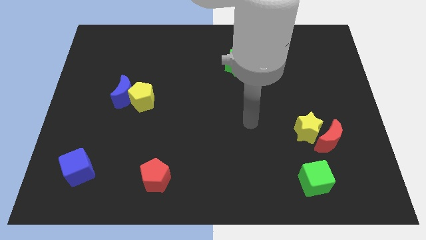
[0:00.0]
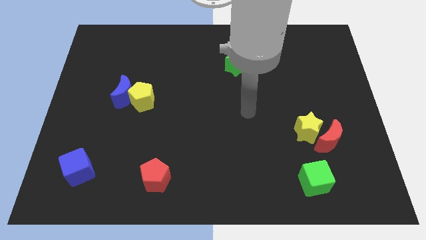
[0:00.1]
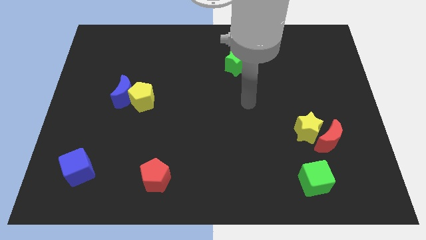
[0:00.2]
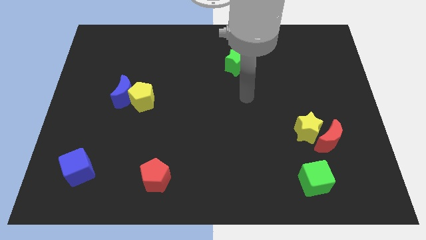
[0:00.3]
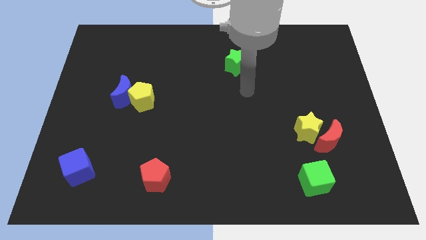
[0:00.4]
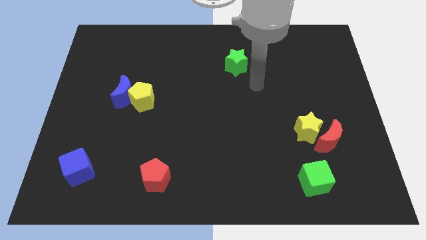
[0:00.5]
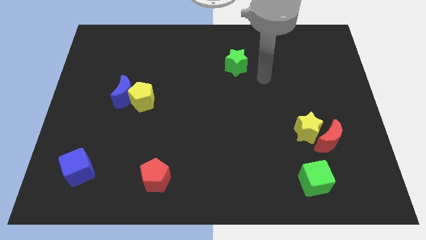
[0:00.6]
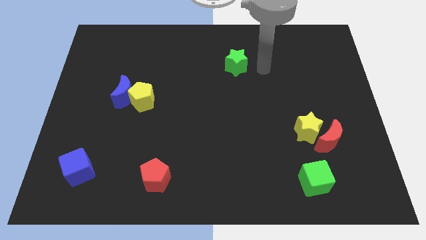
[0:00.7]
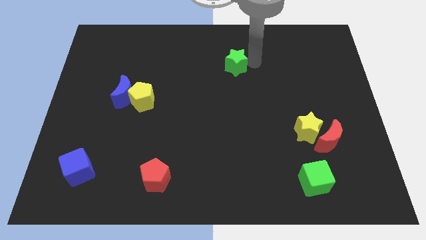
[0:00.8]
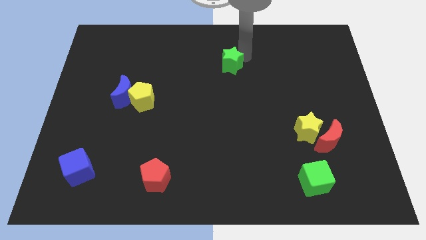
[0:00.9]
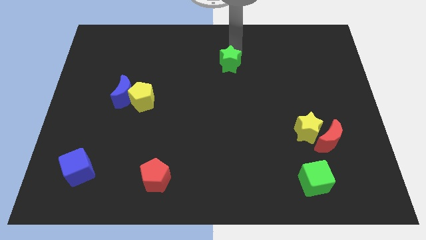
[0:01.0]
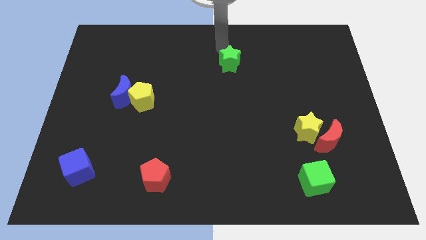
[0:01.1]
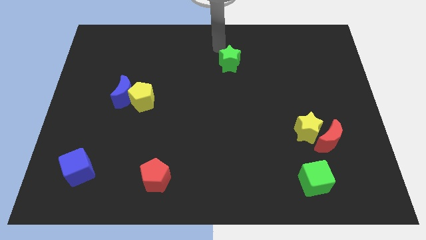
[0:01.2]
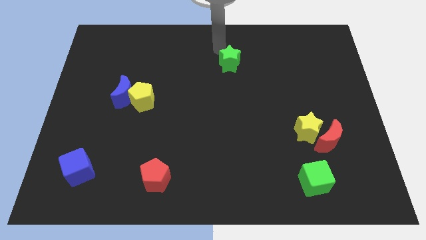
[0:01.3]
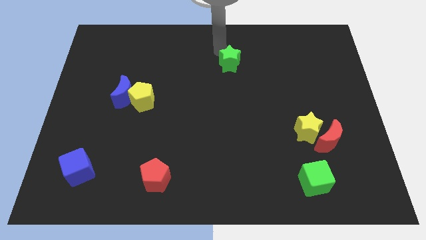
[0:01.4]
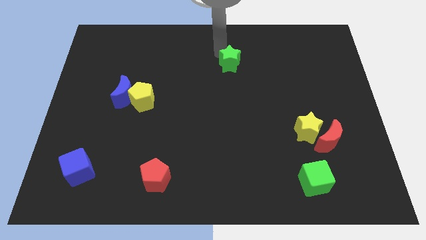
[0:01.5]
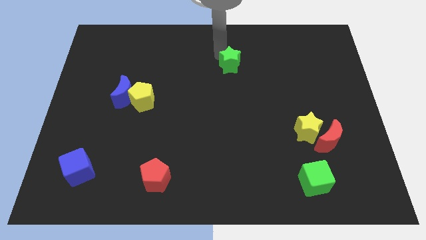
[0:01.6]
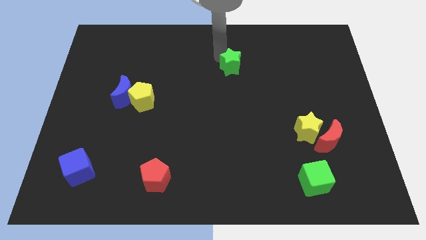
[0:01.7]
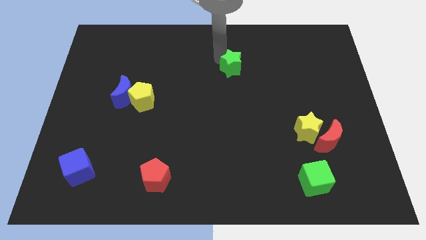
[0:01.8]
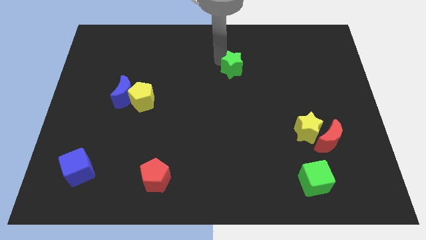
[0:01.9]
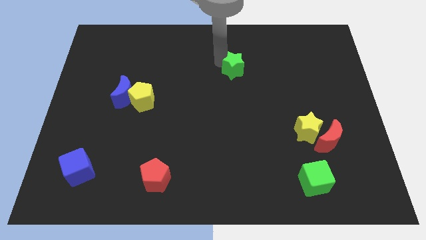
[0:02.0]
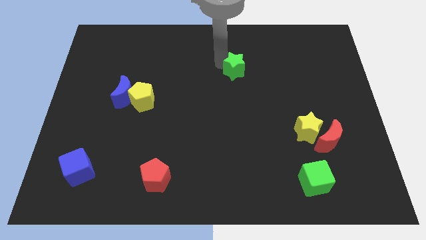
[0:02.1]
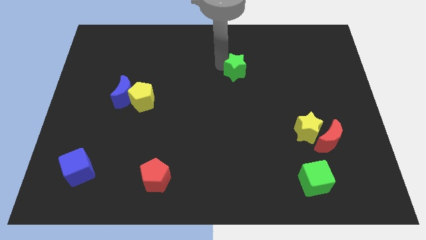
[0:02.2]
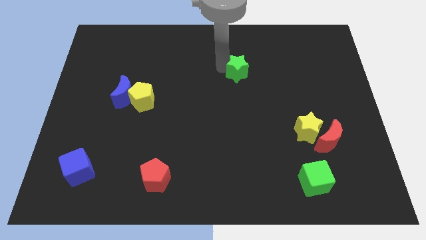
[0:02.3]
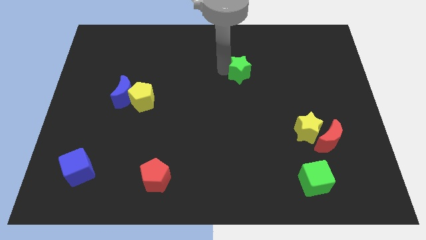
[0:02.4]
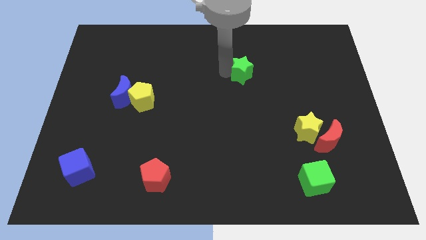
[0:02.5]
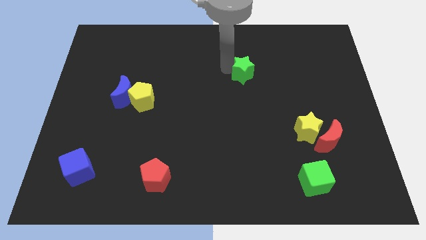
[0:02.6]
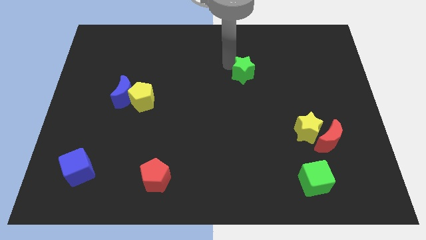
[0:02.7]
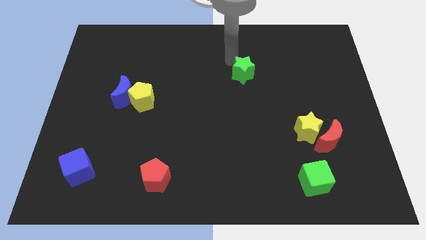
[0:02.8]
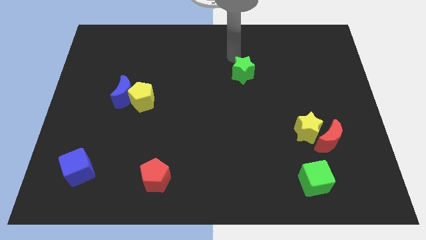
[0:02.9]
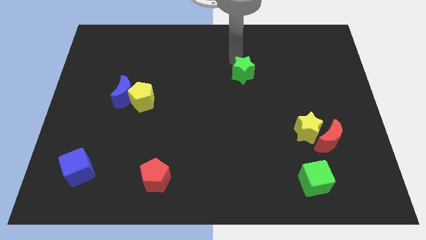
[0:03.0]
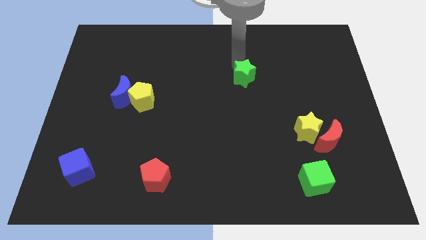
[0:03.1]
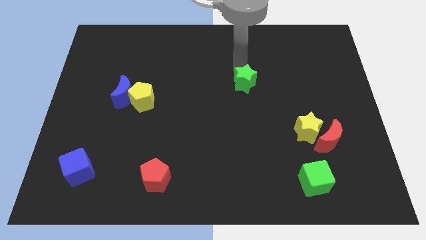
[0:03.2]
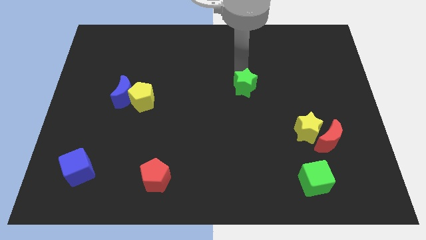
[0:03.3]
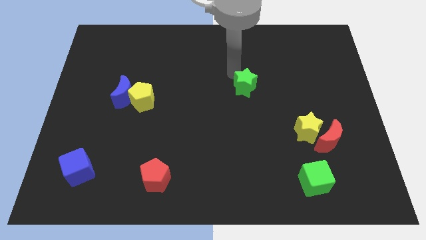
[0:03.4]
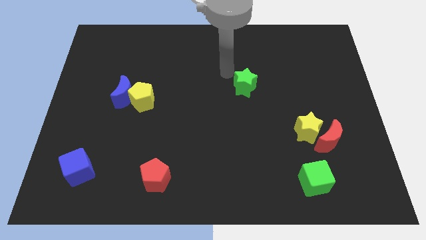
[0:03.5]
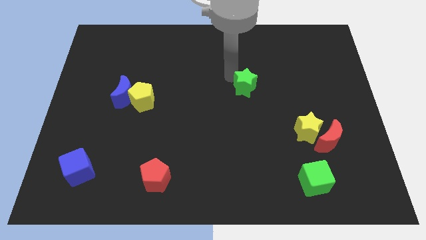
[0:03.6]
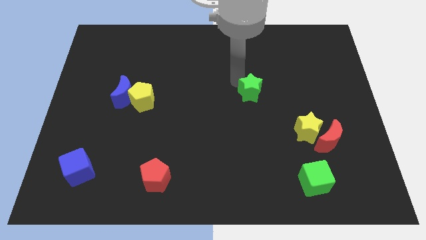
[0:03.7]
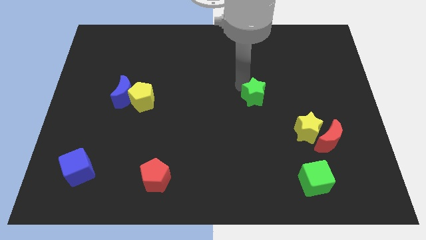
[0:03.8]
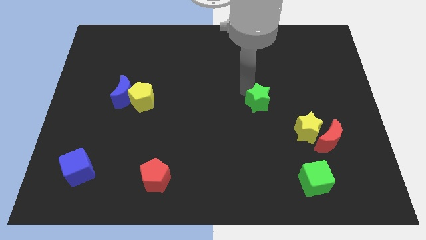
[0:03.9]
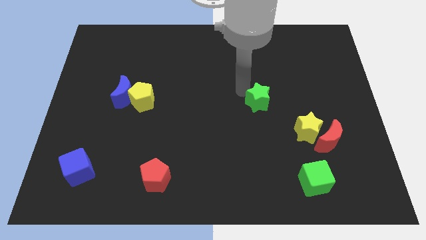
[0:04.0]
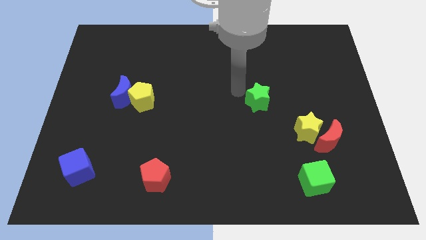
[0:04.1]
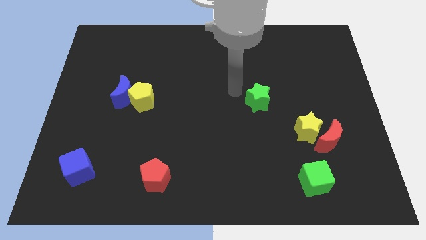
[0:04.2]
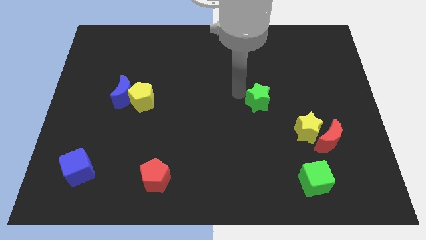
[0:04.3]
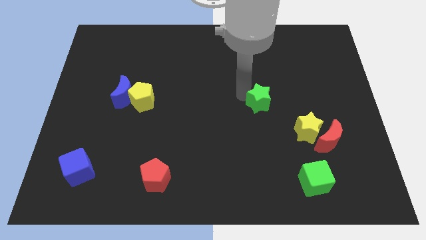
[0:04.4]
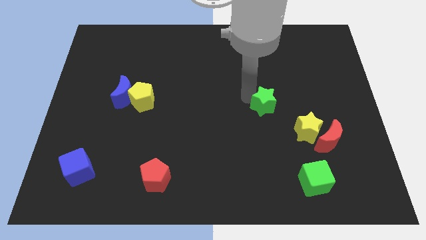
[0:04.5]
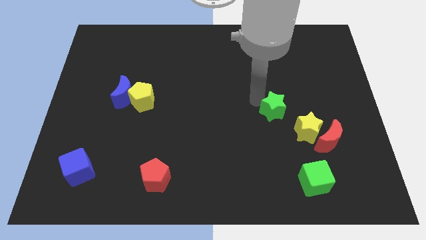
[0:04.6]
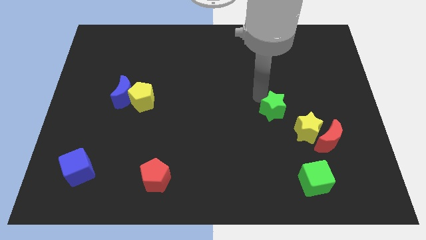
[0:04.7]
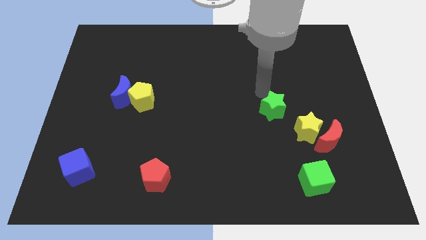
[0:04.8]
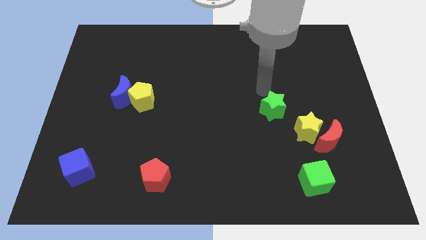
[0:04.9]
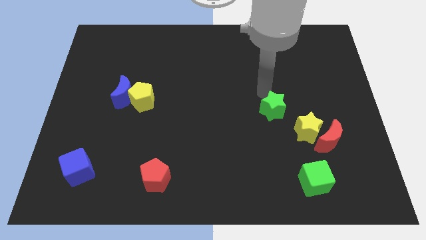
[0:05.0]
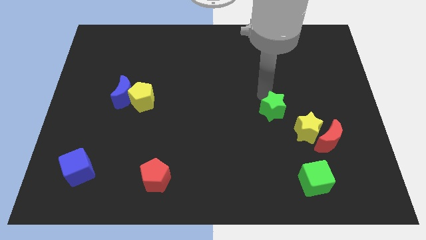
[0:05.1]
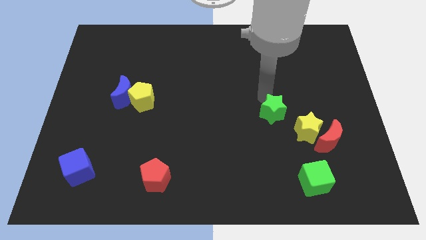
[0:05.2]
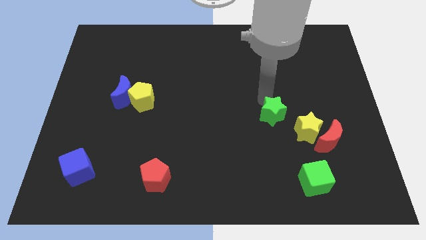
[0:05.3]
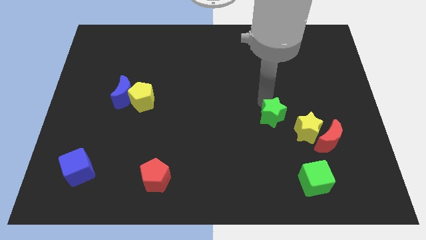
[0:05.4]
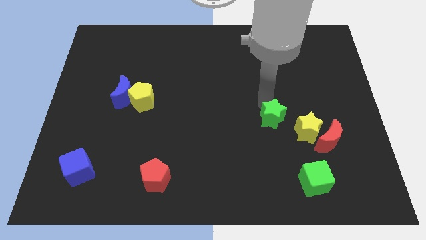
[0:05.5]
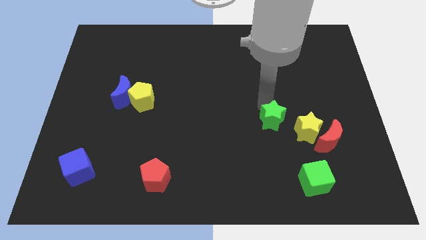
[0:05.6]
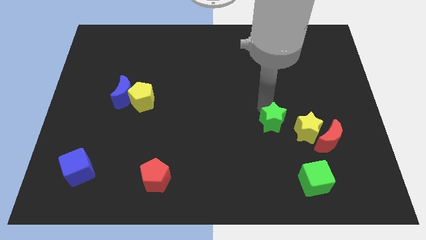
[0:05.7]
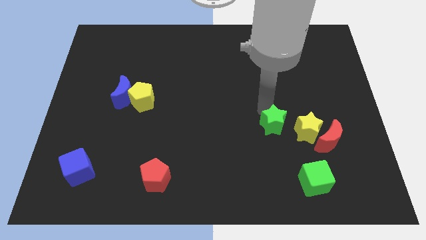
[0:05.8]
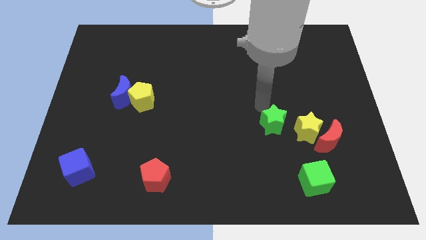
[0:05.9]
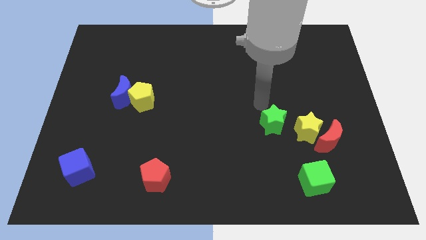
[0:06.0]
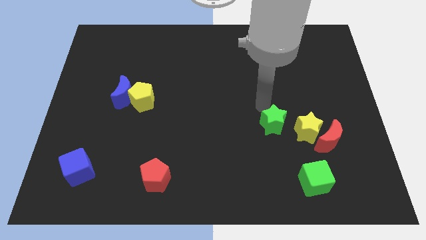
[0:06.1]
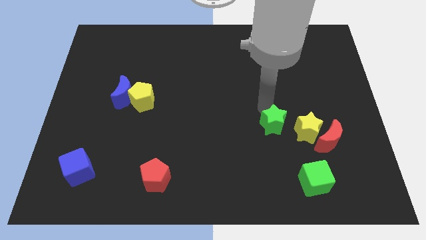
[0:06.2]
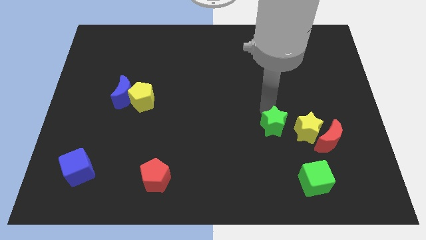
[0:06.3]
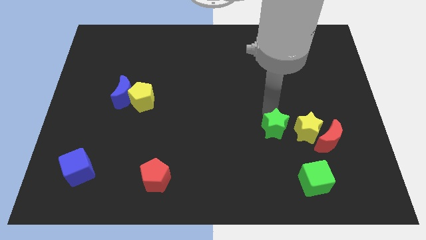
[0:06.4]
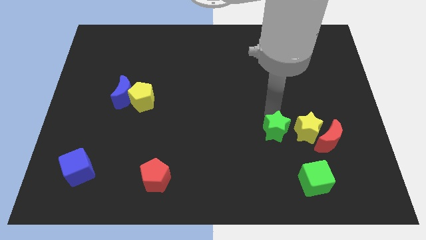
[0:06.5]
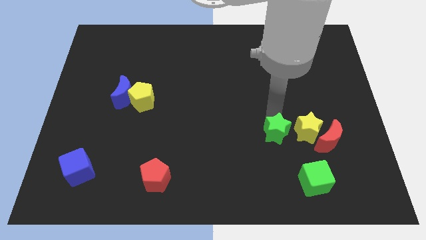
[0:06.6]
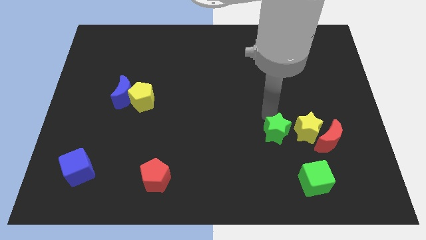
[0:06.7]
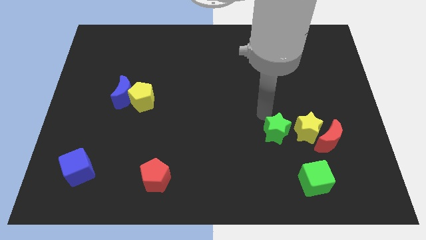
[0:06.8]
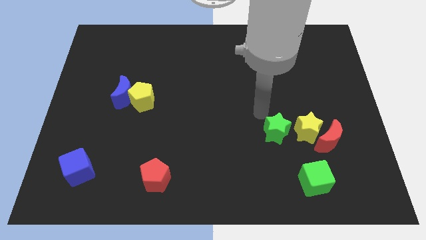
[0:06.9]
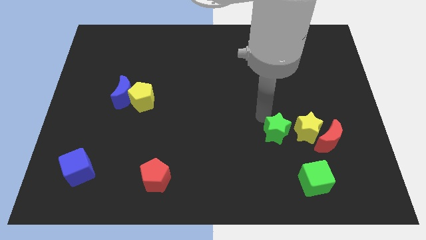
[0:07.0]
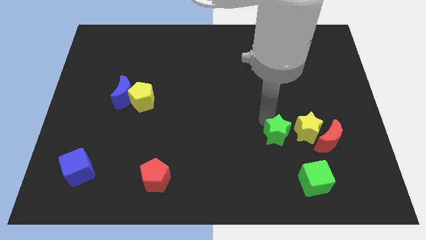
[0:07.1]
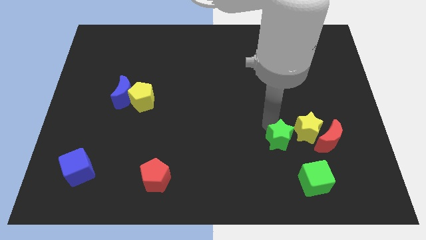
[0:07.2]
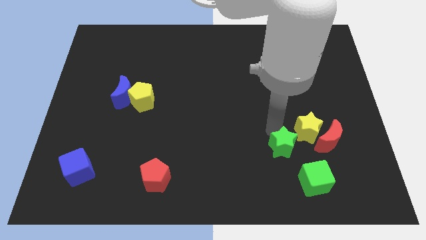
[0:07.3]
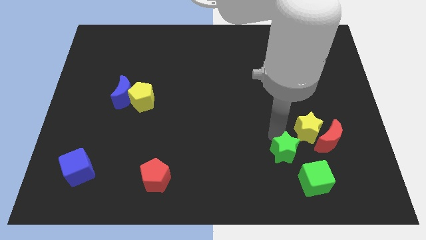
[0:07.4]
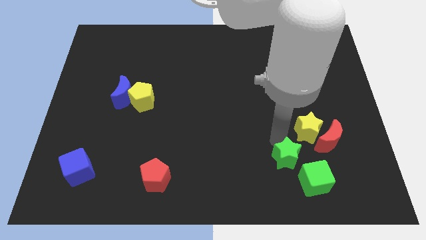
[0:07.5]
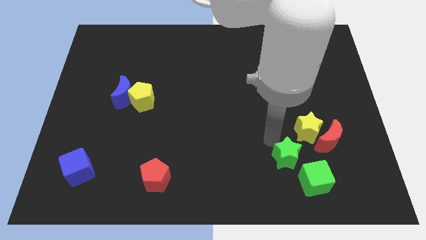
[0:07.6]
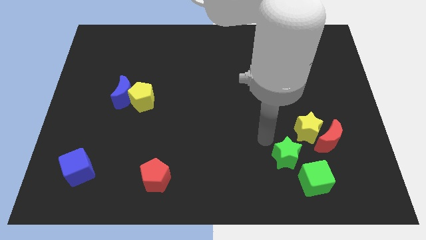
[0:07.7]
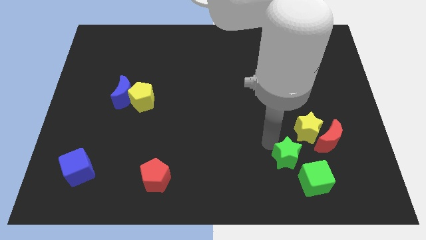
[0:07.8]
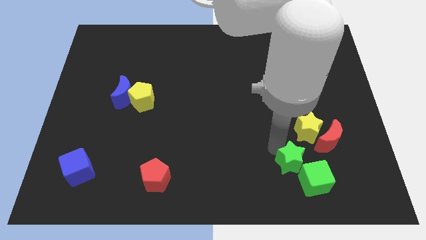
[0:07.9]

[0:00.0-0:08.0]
move the green star towards the green cube
